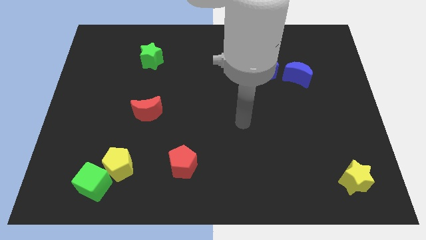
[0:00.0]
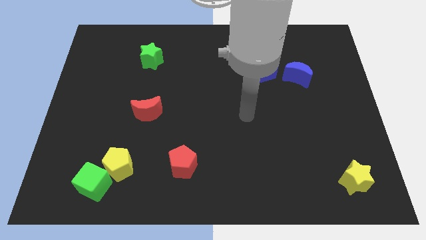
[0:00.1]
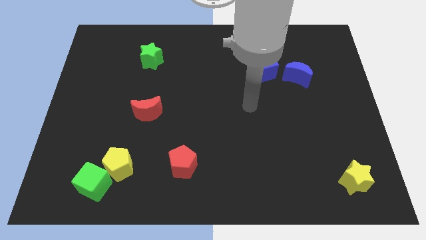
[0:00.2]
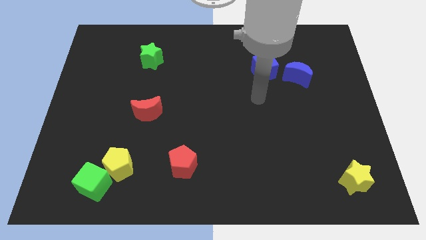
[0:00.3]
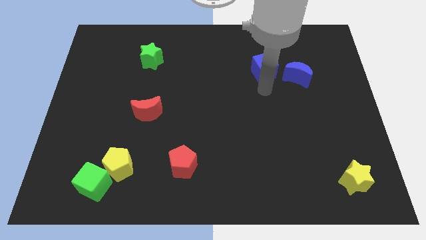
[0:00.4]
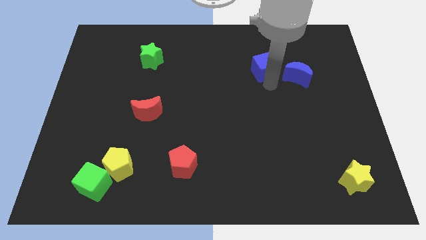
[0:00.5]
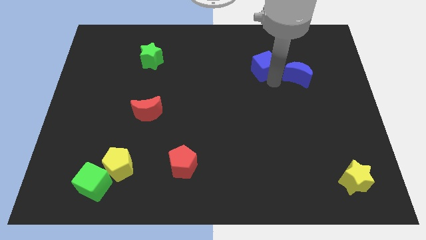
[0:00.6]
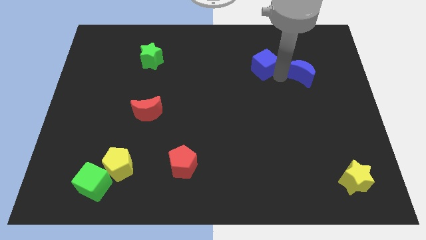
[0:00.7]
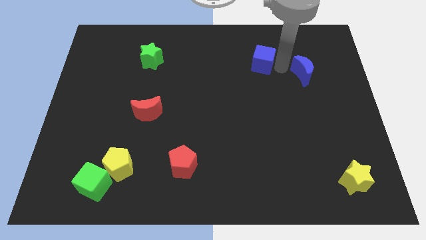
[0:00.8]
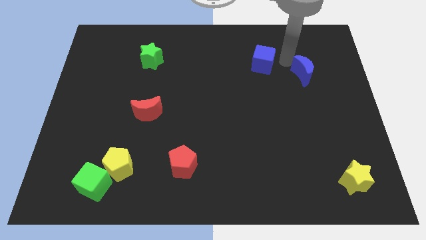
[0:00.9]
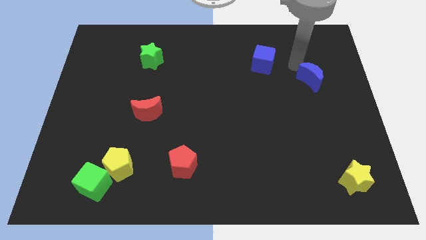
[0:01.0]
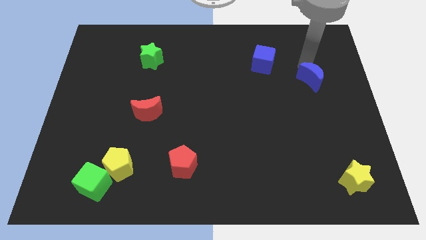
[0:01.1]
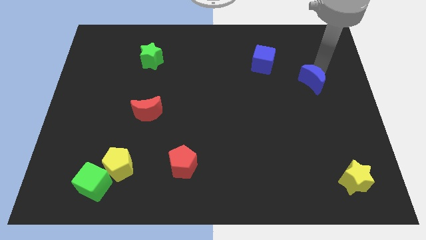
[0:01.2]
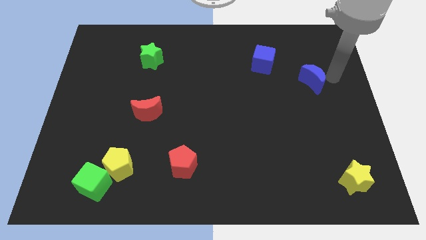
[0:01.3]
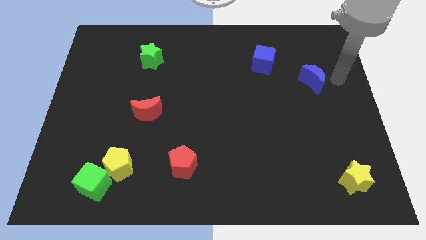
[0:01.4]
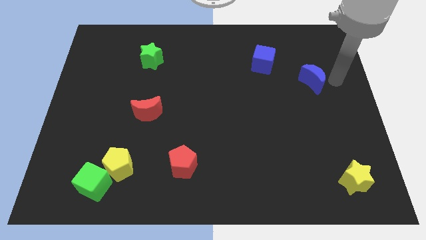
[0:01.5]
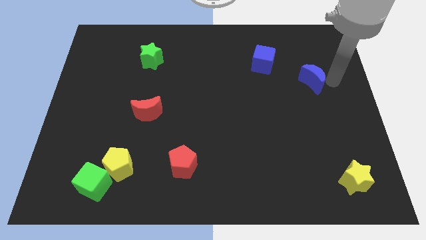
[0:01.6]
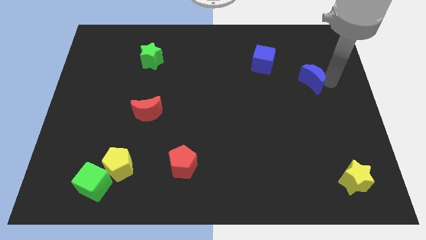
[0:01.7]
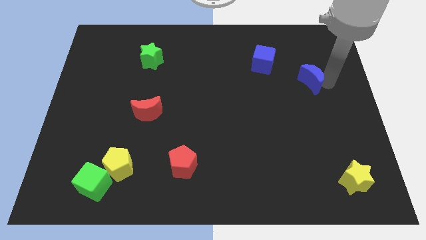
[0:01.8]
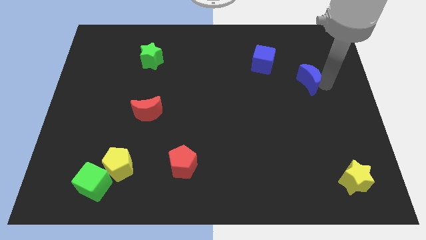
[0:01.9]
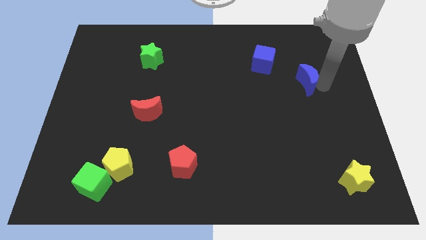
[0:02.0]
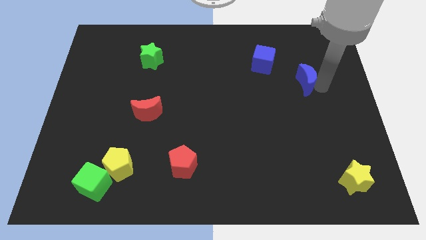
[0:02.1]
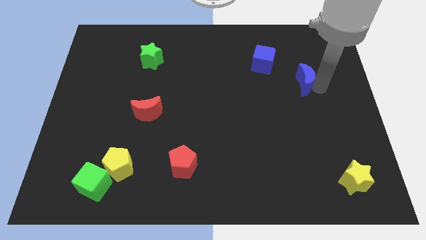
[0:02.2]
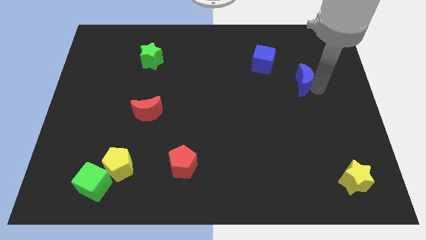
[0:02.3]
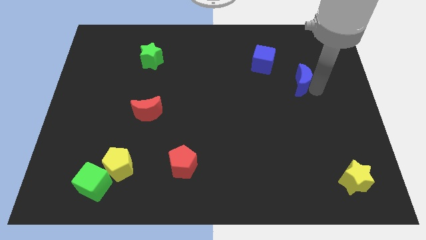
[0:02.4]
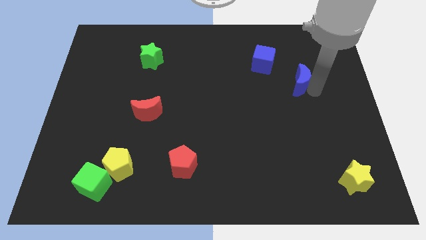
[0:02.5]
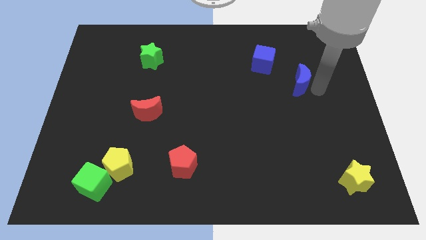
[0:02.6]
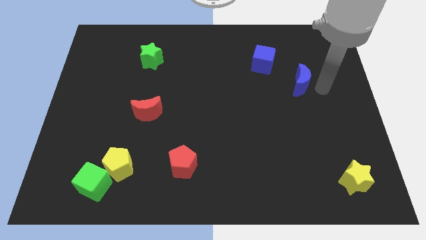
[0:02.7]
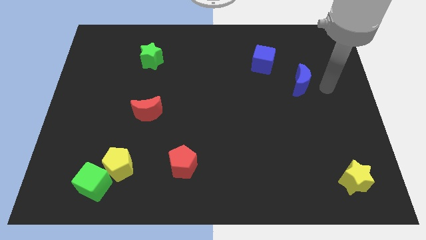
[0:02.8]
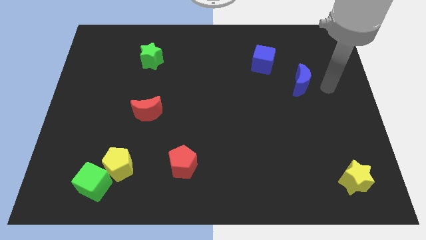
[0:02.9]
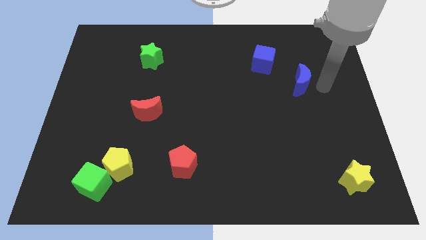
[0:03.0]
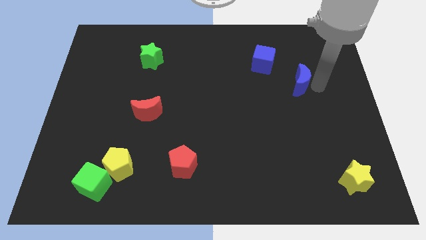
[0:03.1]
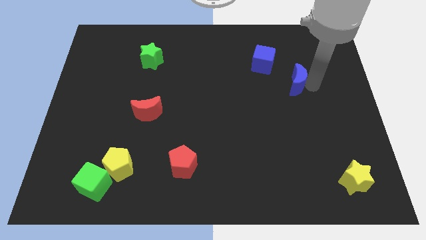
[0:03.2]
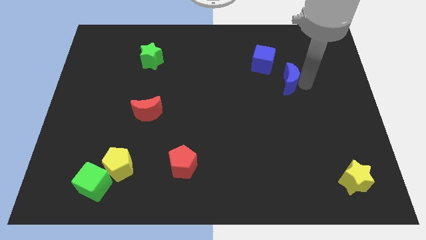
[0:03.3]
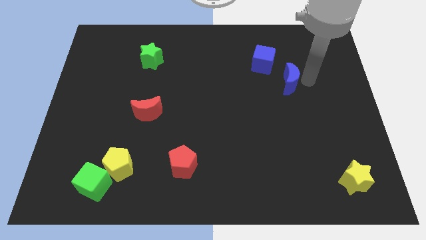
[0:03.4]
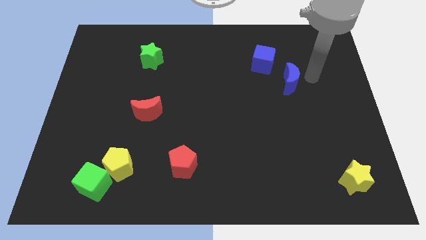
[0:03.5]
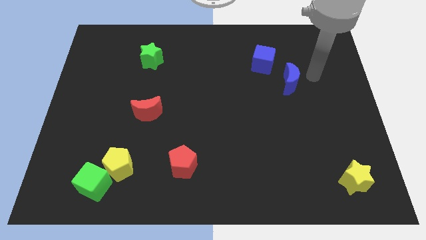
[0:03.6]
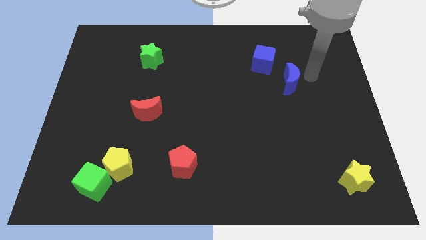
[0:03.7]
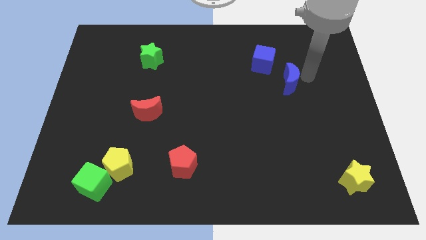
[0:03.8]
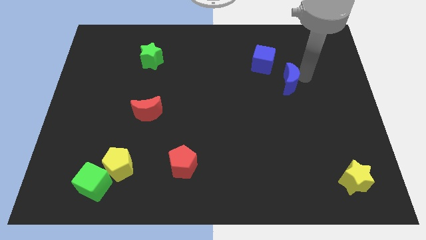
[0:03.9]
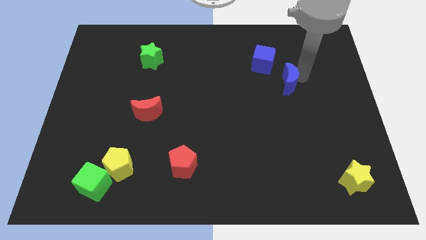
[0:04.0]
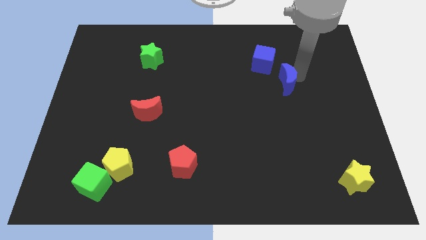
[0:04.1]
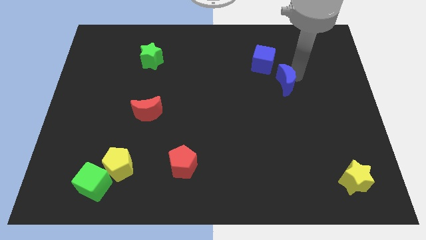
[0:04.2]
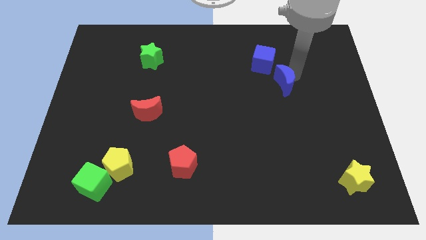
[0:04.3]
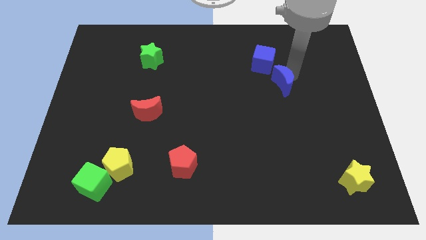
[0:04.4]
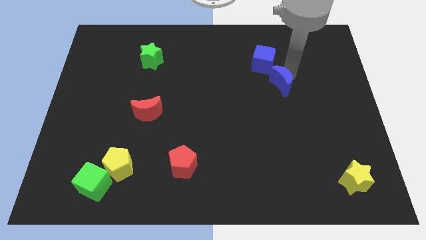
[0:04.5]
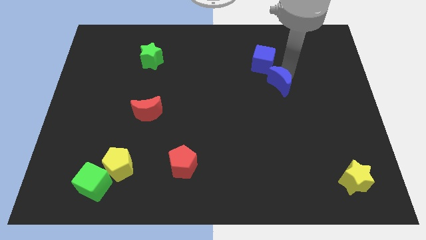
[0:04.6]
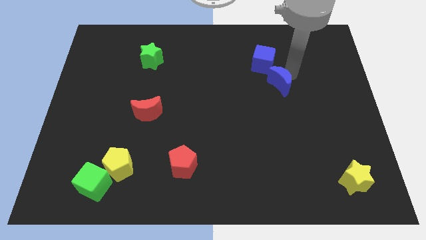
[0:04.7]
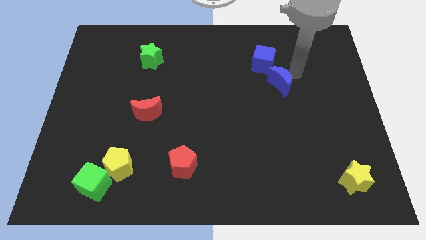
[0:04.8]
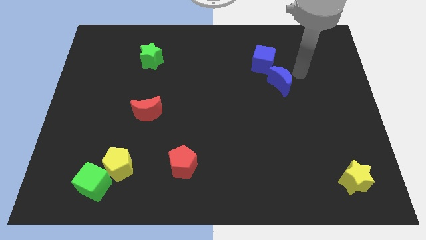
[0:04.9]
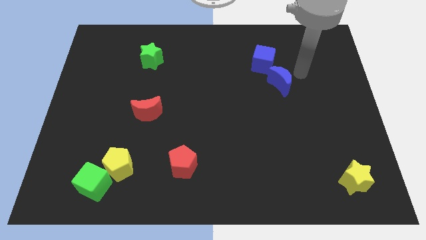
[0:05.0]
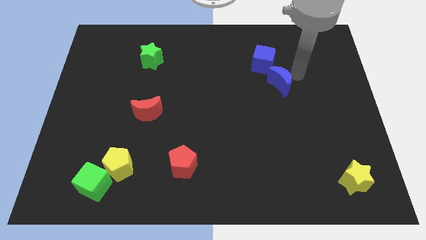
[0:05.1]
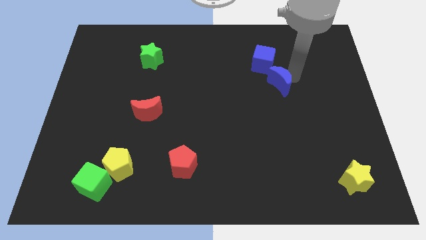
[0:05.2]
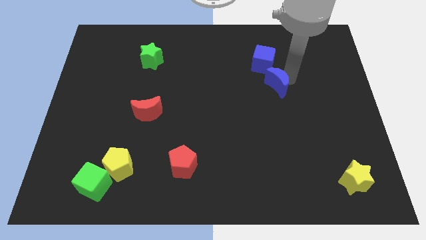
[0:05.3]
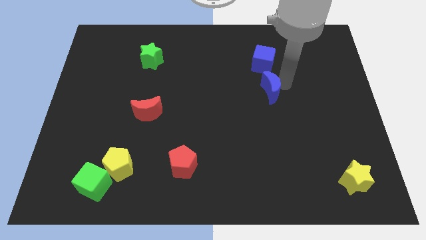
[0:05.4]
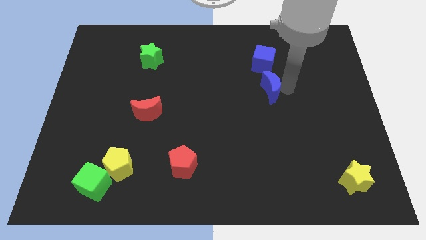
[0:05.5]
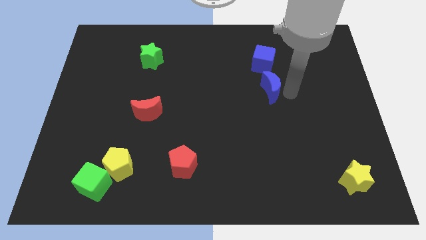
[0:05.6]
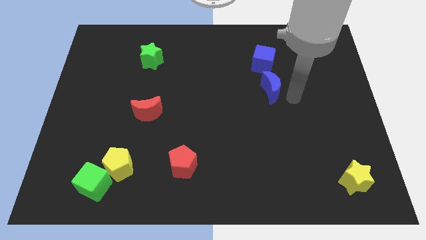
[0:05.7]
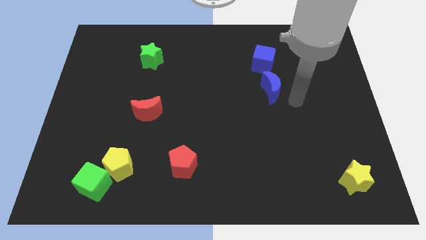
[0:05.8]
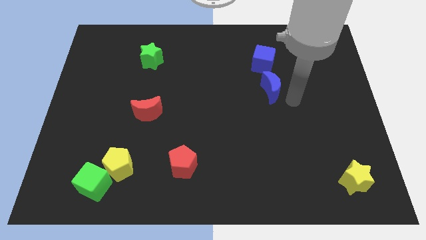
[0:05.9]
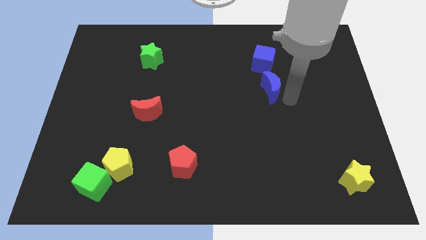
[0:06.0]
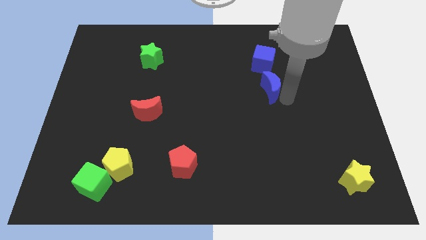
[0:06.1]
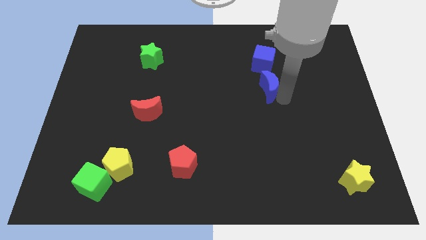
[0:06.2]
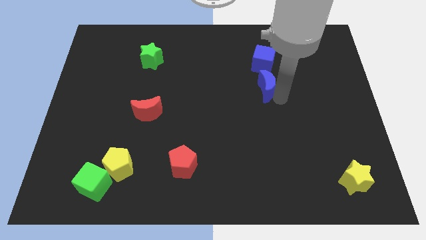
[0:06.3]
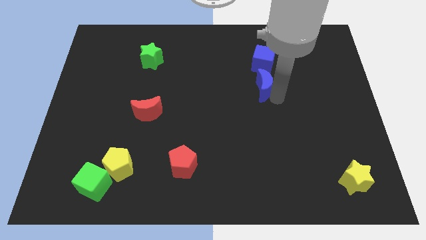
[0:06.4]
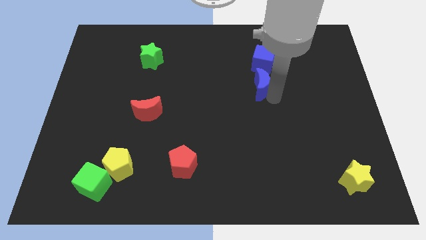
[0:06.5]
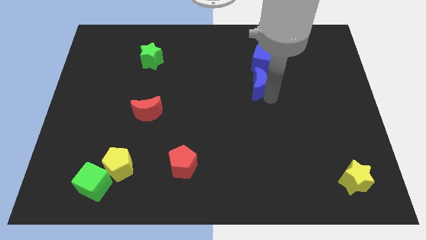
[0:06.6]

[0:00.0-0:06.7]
slide the blue moon to the bottom left side of the blue cube

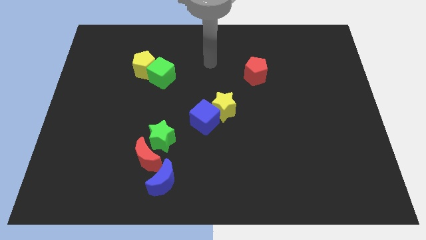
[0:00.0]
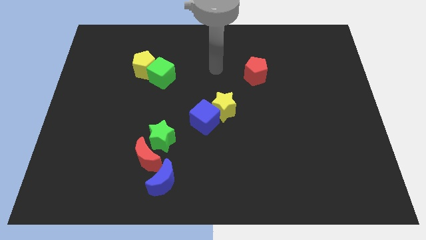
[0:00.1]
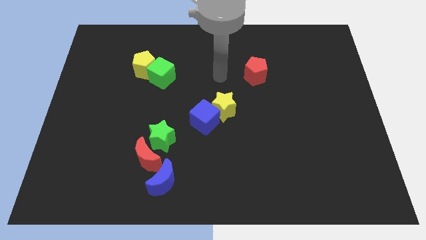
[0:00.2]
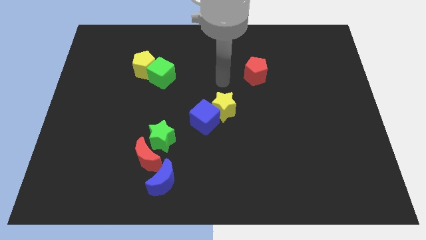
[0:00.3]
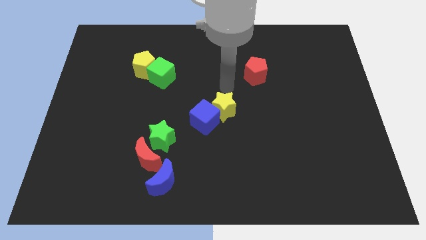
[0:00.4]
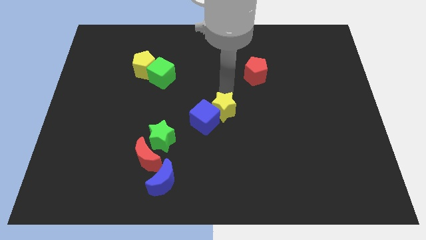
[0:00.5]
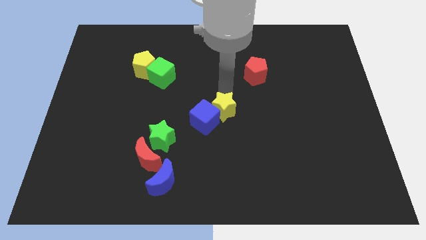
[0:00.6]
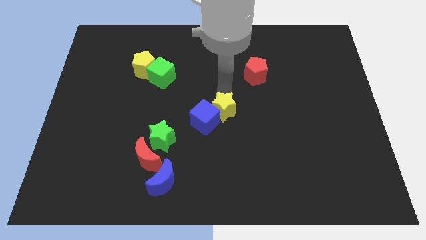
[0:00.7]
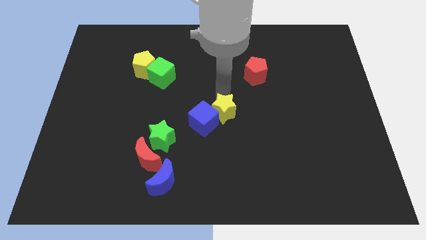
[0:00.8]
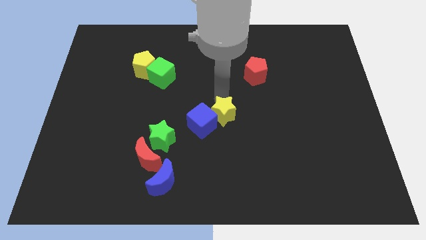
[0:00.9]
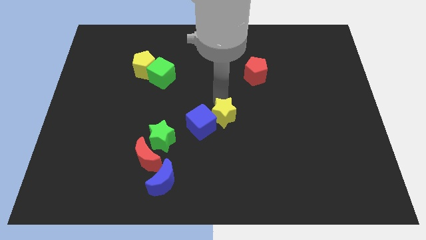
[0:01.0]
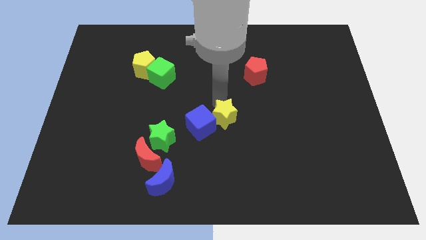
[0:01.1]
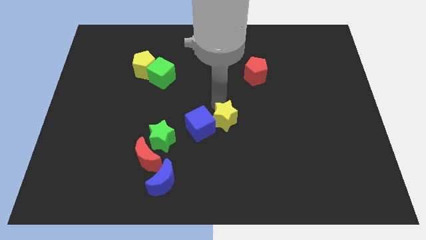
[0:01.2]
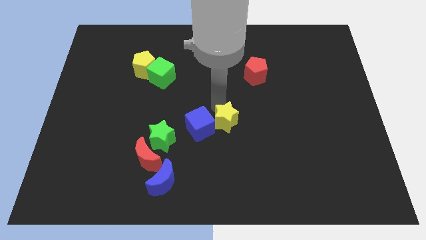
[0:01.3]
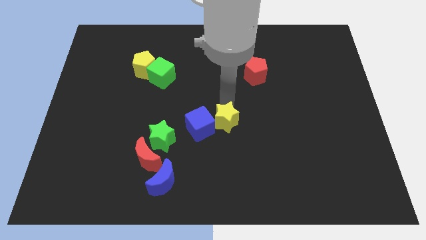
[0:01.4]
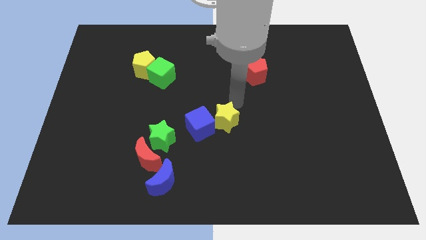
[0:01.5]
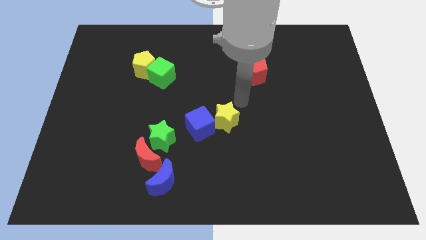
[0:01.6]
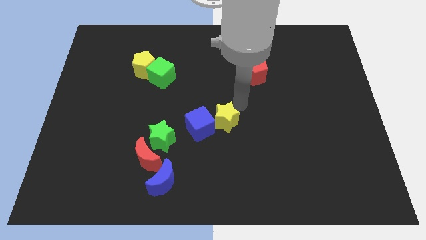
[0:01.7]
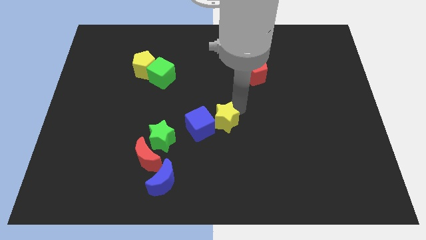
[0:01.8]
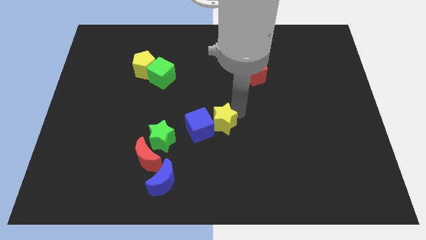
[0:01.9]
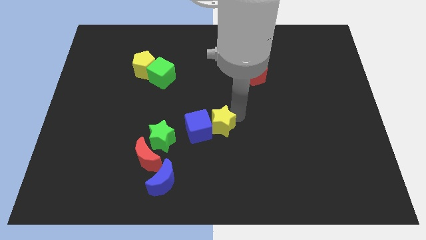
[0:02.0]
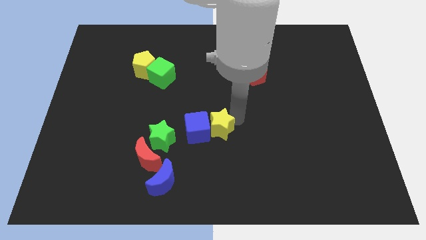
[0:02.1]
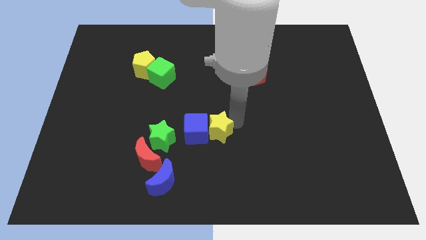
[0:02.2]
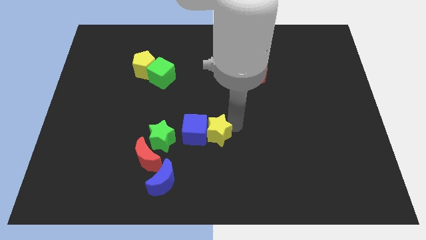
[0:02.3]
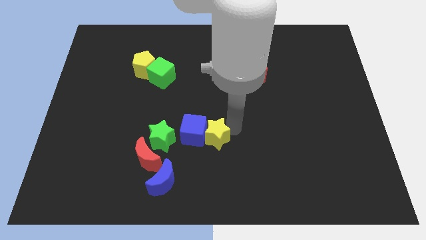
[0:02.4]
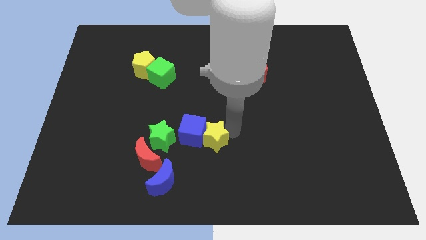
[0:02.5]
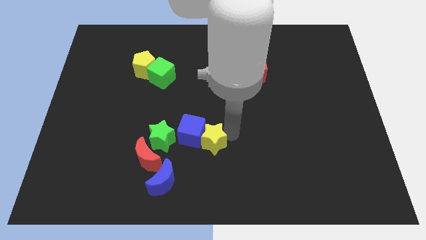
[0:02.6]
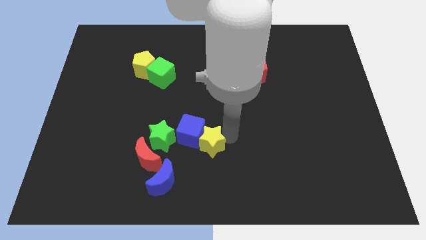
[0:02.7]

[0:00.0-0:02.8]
slide the yellow star just right of the red moon
